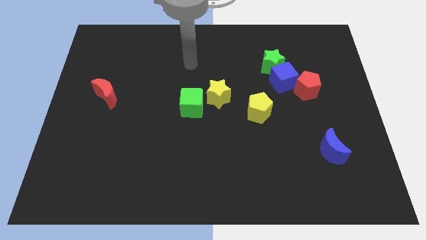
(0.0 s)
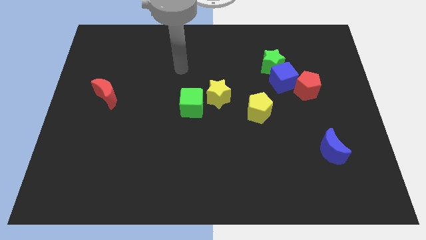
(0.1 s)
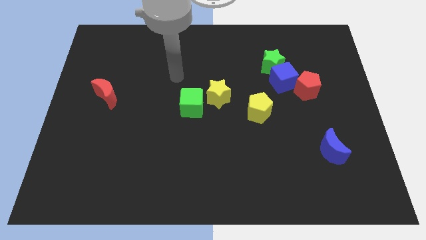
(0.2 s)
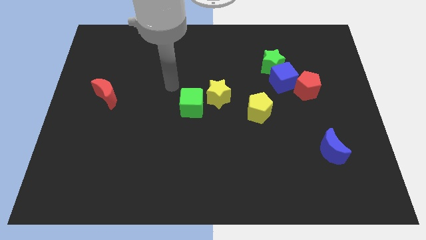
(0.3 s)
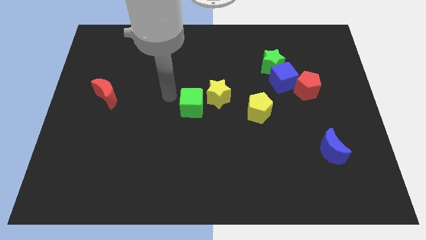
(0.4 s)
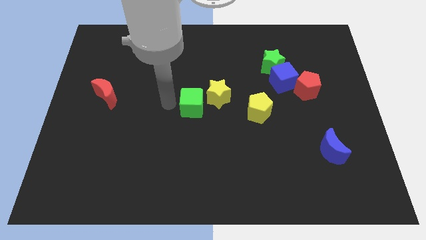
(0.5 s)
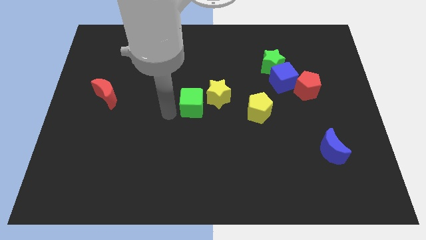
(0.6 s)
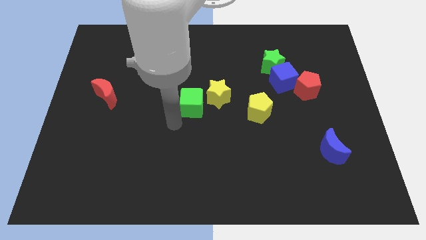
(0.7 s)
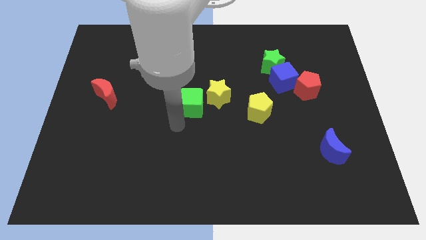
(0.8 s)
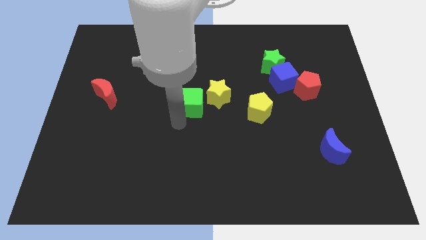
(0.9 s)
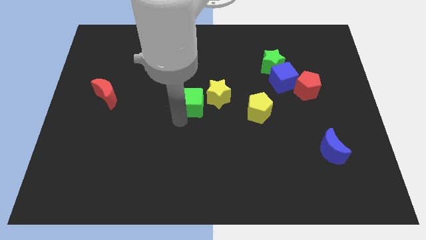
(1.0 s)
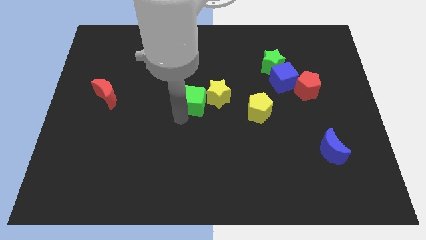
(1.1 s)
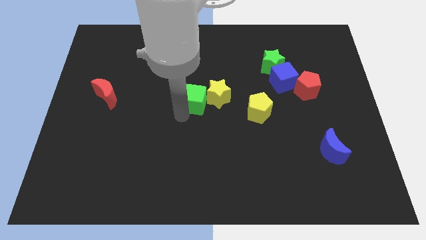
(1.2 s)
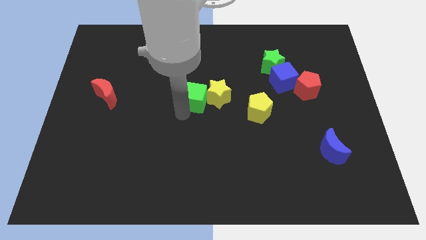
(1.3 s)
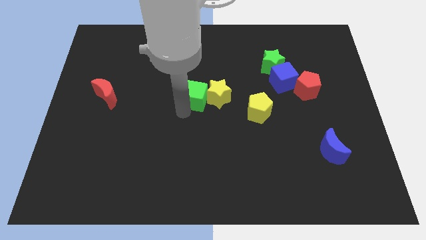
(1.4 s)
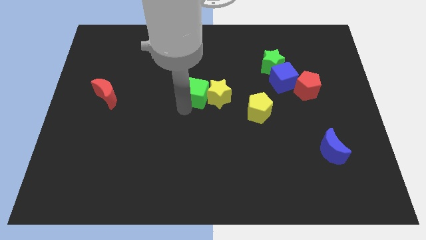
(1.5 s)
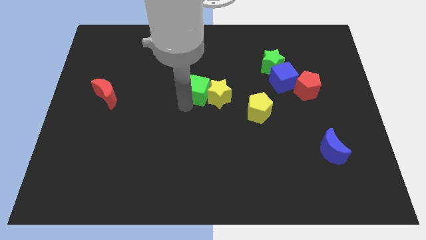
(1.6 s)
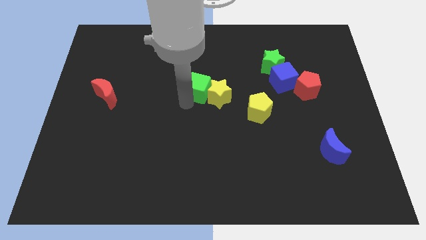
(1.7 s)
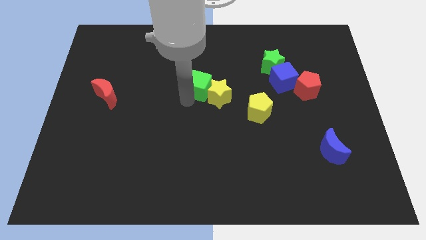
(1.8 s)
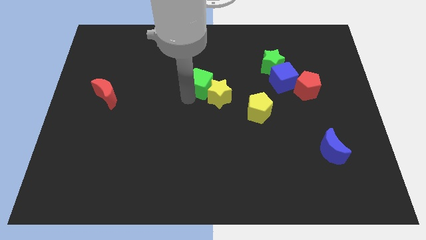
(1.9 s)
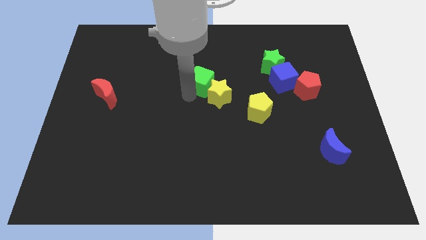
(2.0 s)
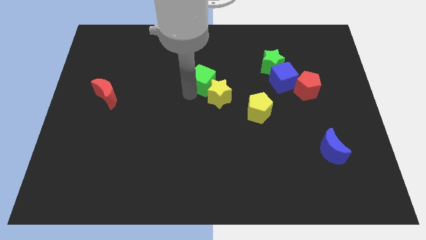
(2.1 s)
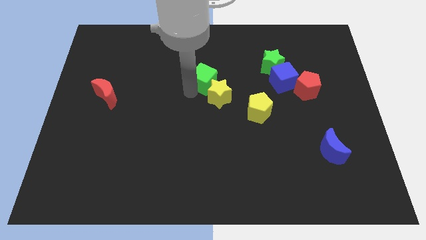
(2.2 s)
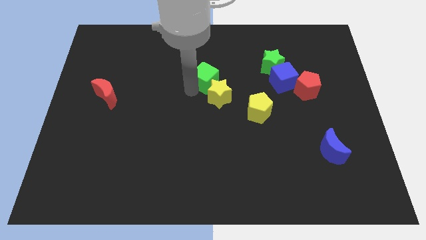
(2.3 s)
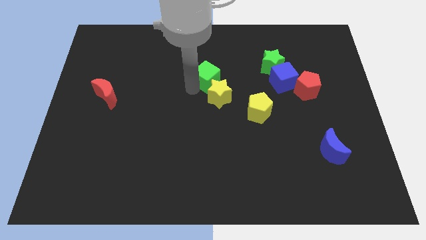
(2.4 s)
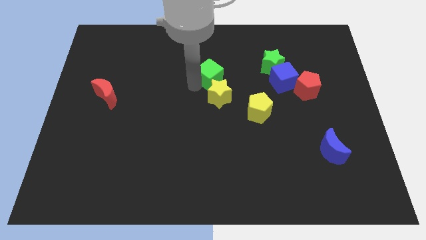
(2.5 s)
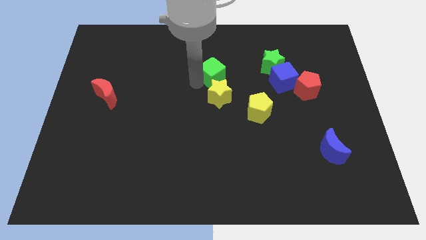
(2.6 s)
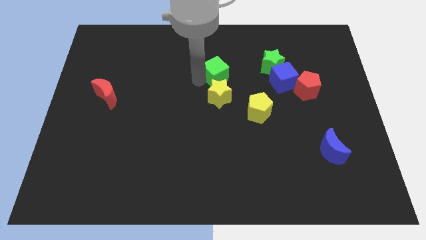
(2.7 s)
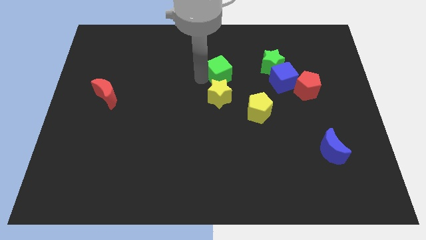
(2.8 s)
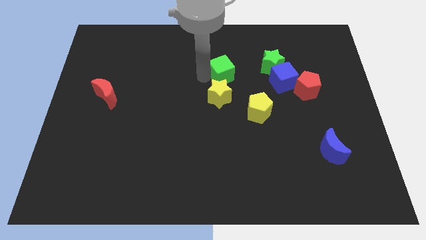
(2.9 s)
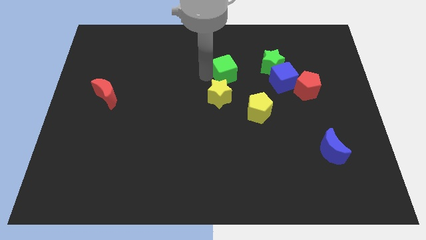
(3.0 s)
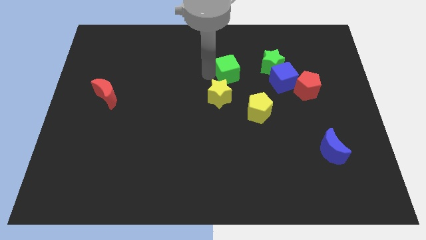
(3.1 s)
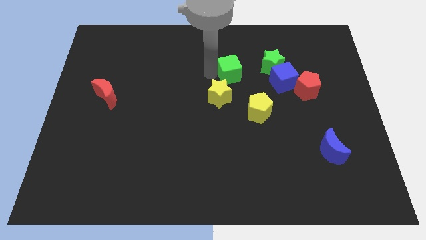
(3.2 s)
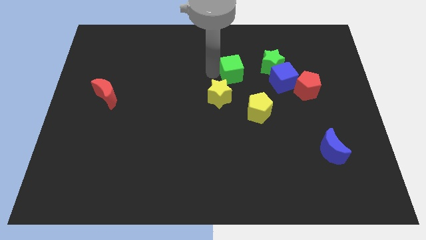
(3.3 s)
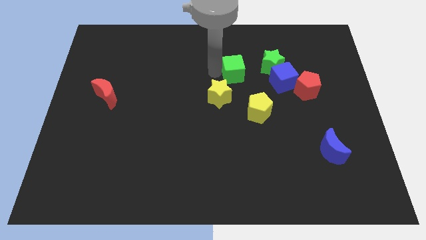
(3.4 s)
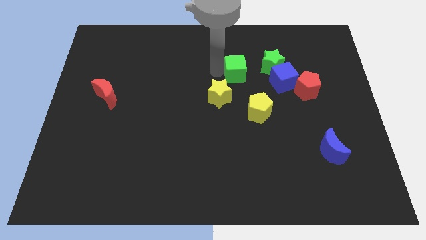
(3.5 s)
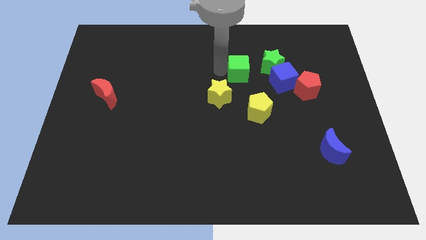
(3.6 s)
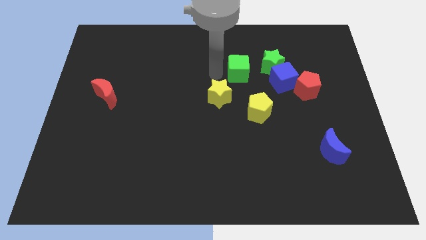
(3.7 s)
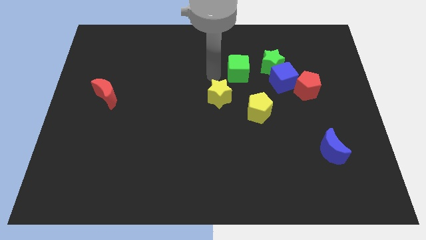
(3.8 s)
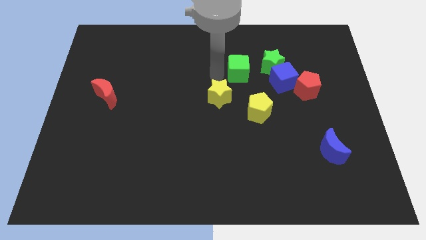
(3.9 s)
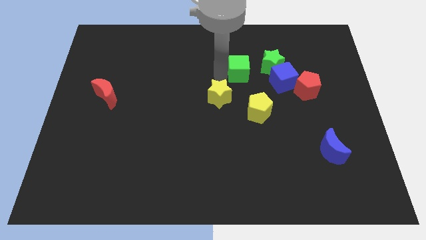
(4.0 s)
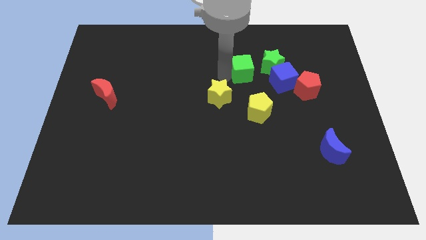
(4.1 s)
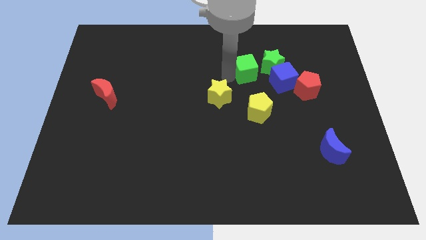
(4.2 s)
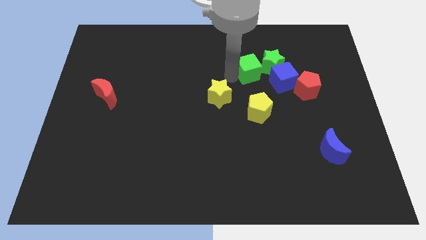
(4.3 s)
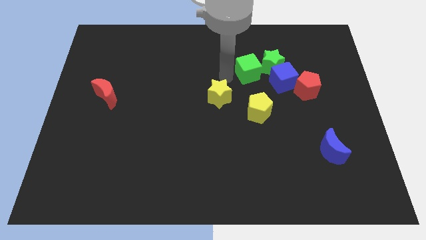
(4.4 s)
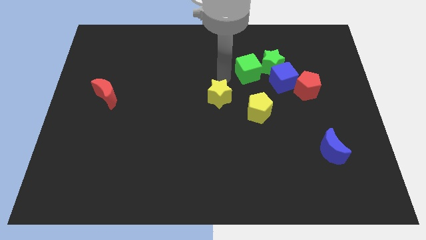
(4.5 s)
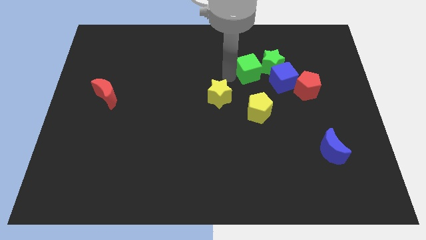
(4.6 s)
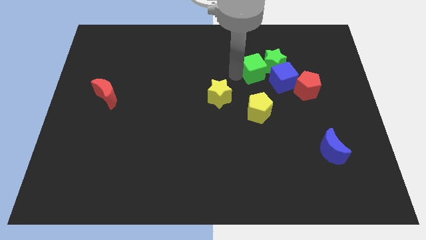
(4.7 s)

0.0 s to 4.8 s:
slide the green cube towards the green star

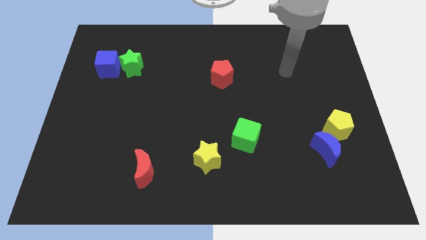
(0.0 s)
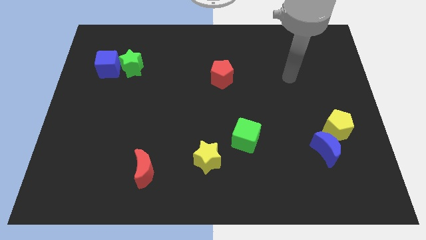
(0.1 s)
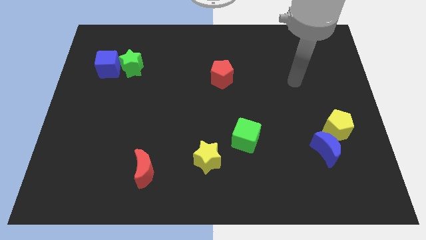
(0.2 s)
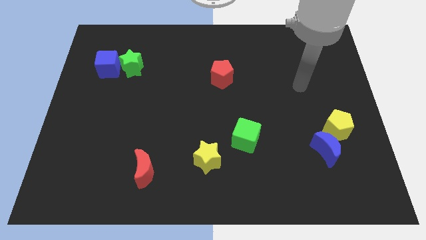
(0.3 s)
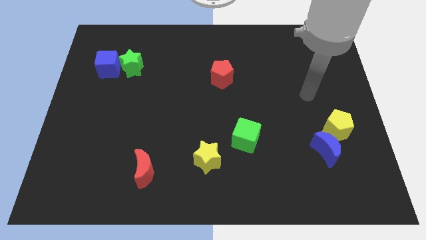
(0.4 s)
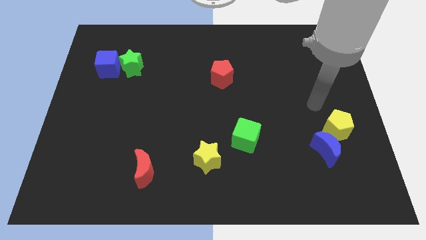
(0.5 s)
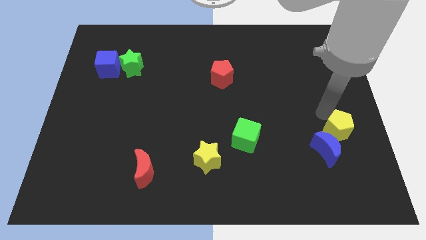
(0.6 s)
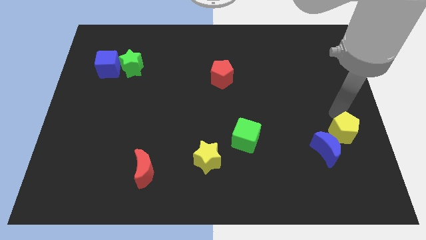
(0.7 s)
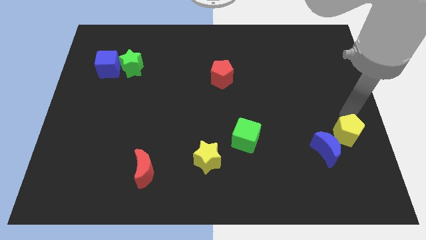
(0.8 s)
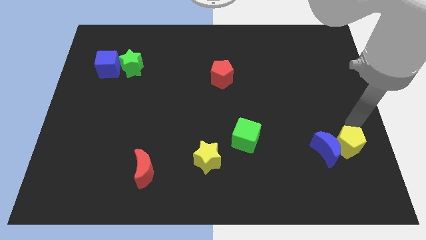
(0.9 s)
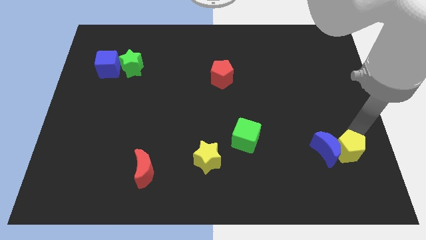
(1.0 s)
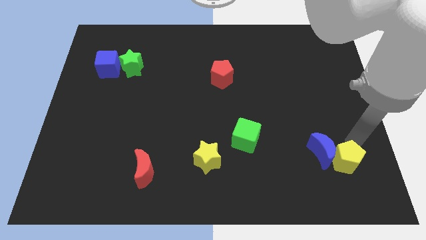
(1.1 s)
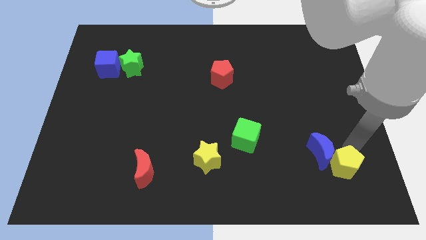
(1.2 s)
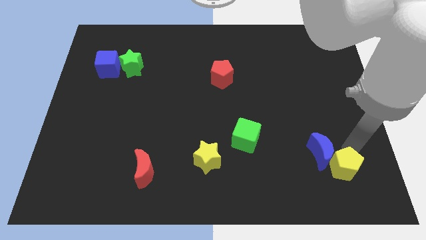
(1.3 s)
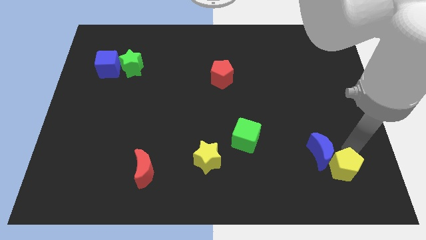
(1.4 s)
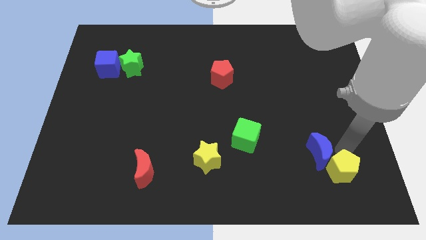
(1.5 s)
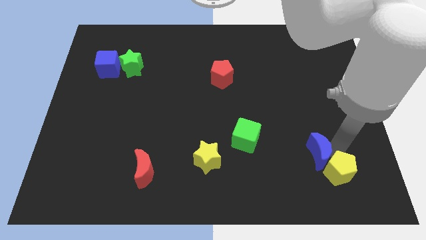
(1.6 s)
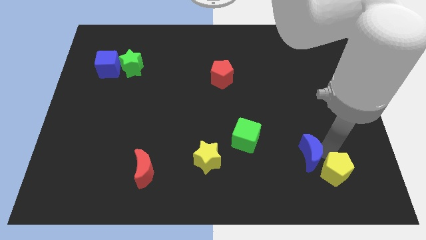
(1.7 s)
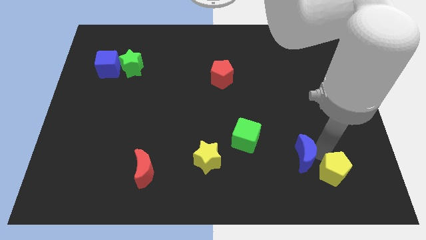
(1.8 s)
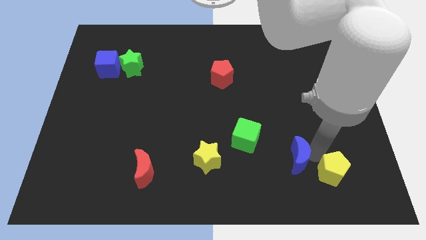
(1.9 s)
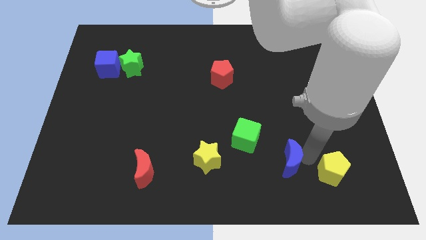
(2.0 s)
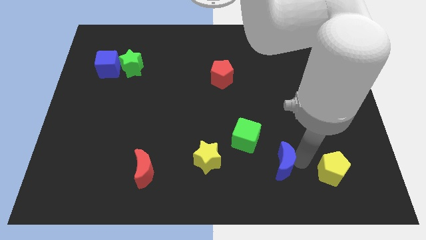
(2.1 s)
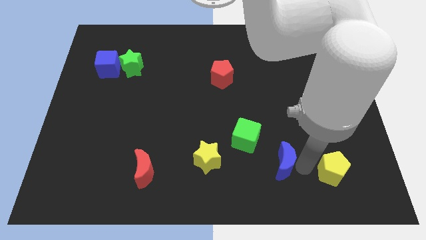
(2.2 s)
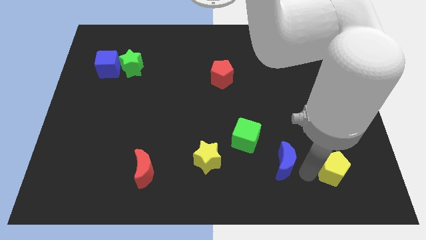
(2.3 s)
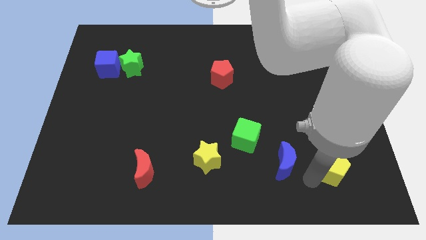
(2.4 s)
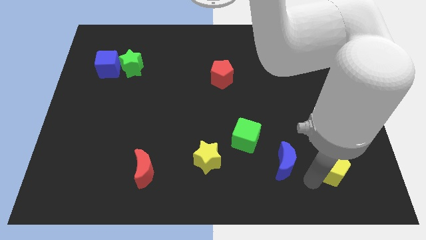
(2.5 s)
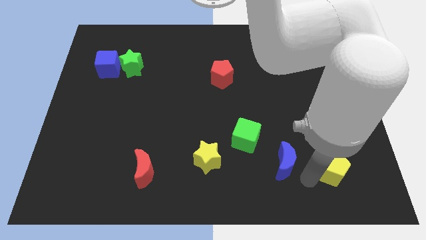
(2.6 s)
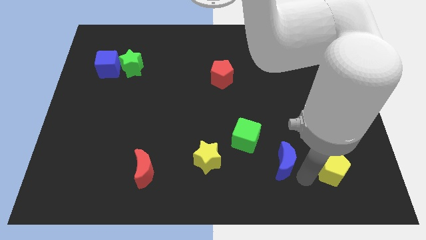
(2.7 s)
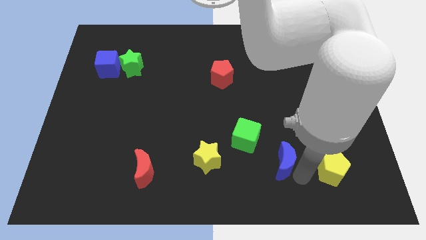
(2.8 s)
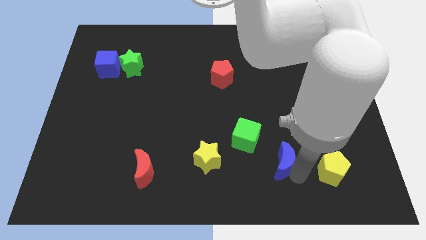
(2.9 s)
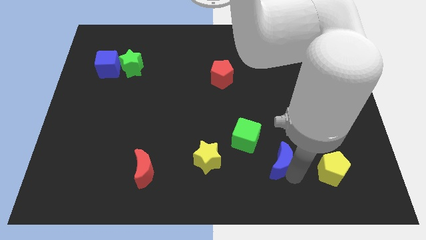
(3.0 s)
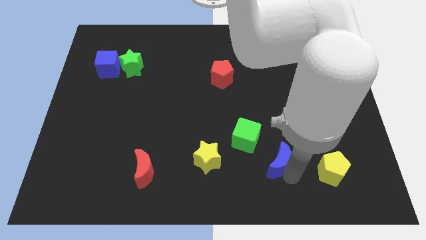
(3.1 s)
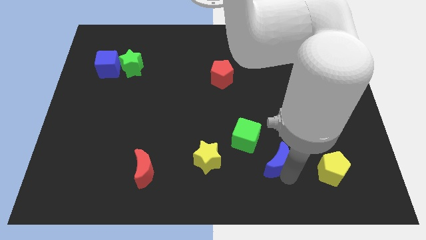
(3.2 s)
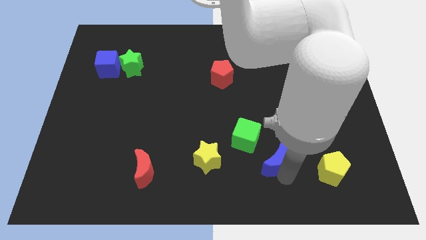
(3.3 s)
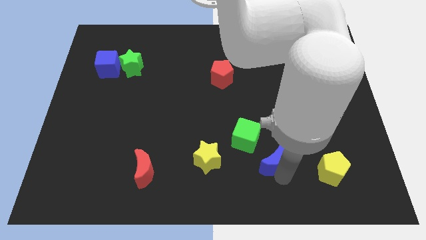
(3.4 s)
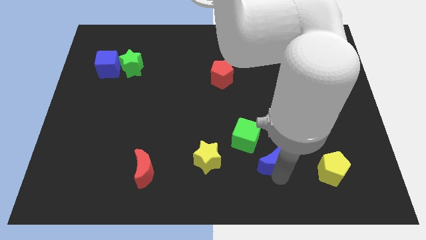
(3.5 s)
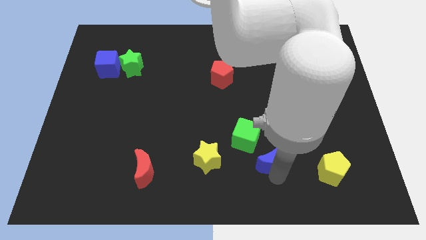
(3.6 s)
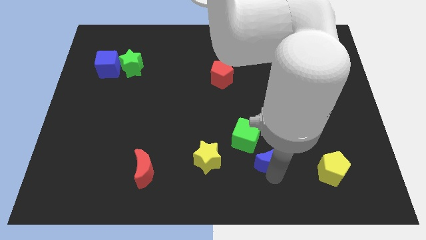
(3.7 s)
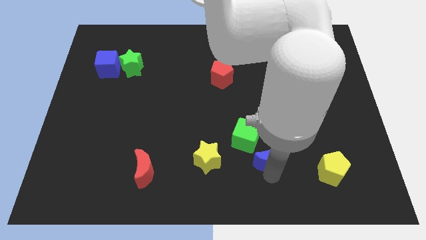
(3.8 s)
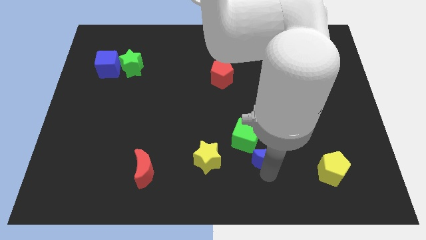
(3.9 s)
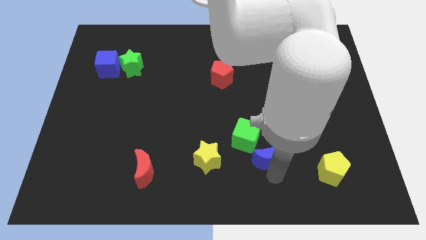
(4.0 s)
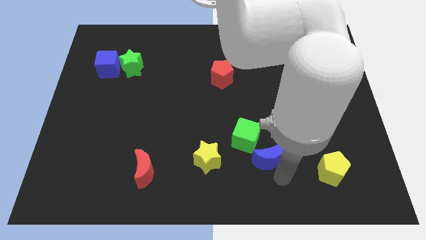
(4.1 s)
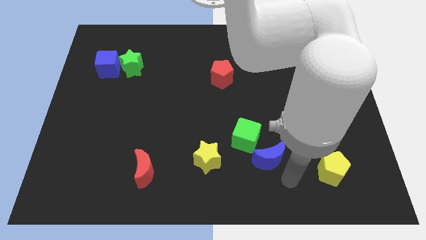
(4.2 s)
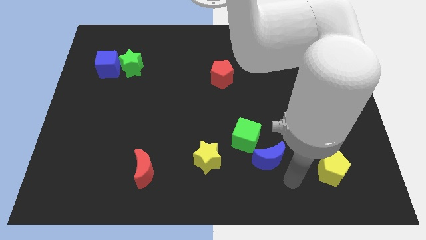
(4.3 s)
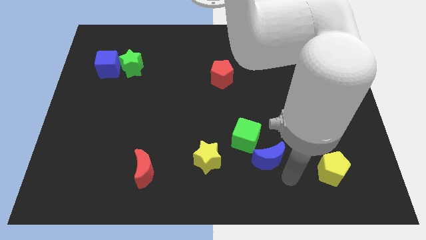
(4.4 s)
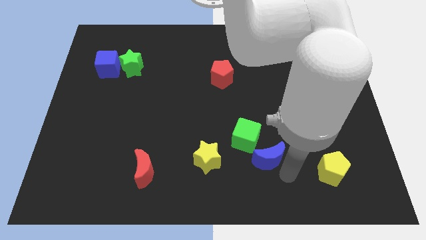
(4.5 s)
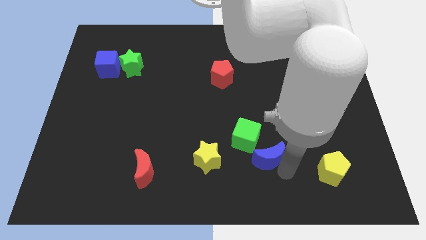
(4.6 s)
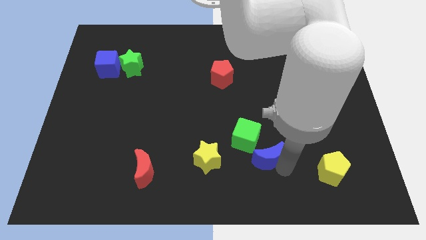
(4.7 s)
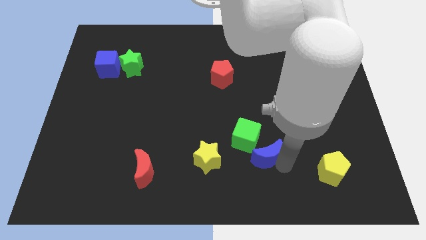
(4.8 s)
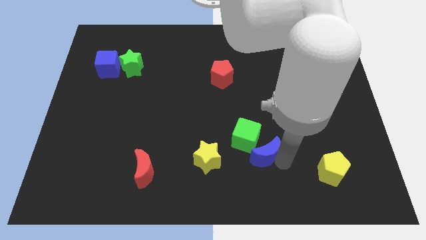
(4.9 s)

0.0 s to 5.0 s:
put the blue moon towards the green cube
